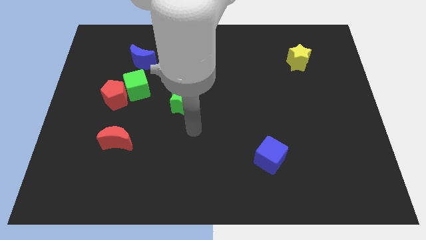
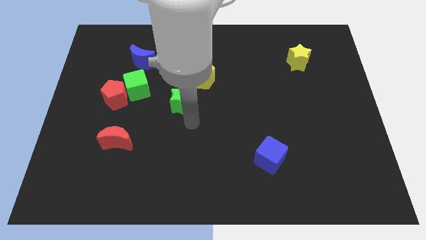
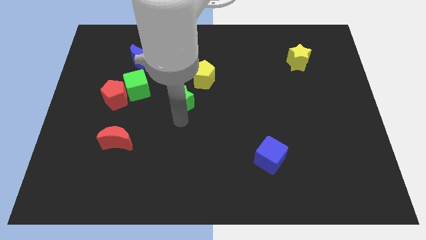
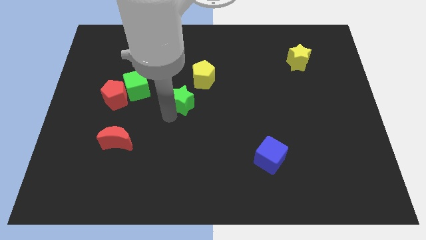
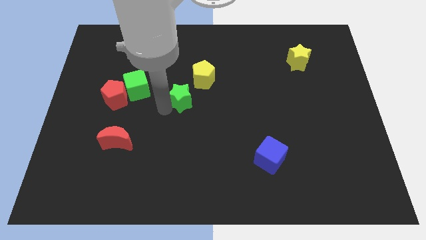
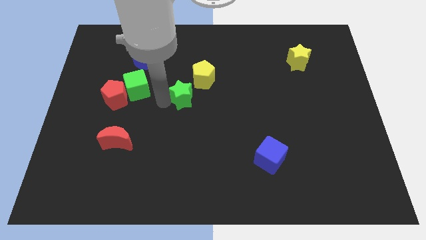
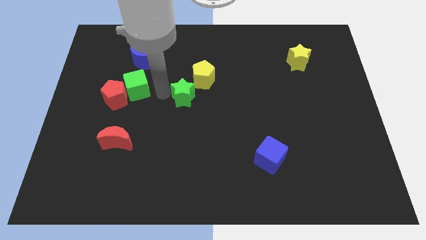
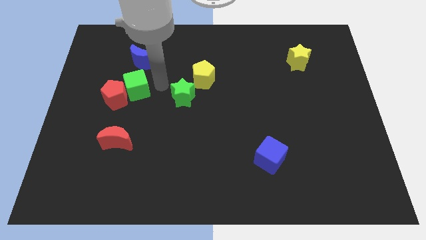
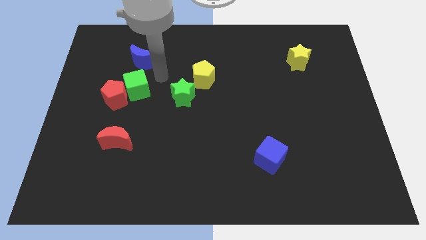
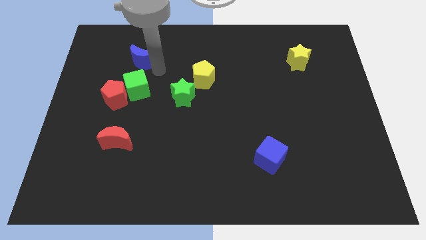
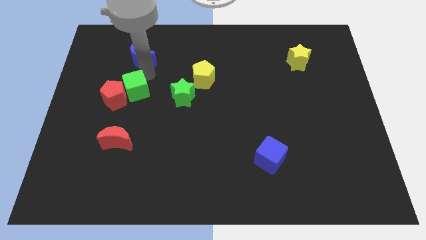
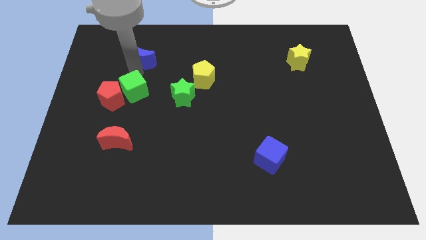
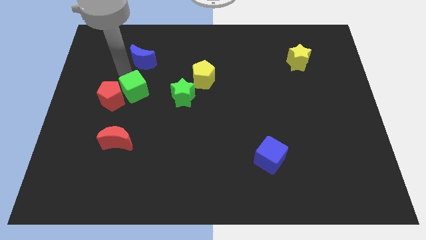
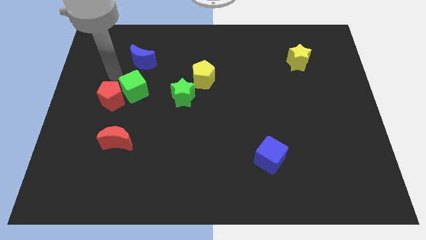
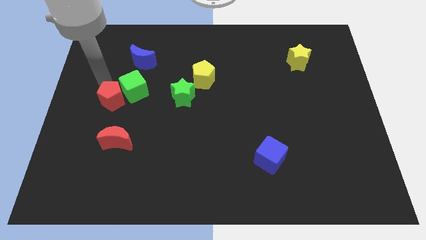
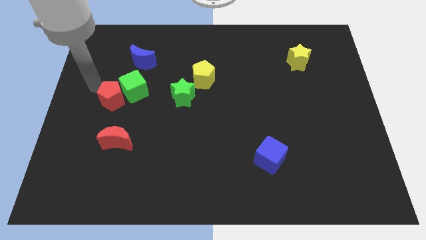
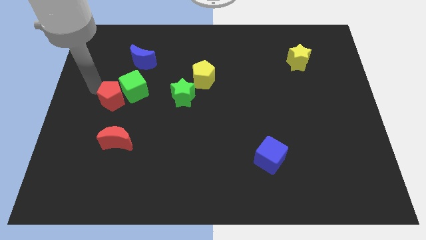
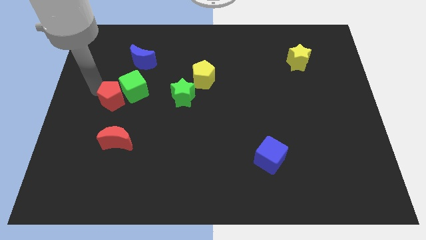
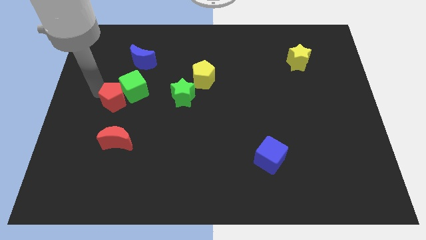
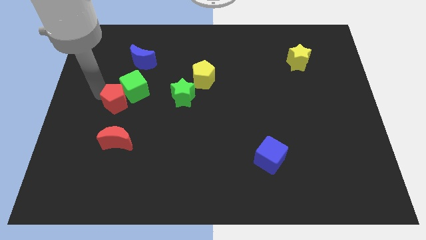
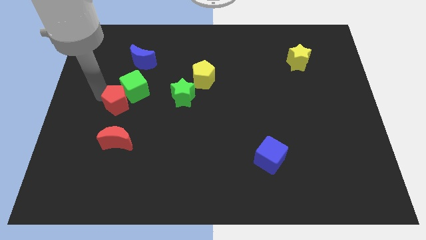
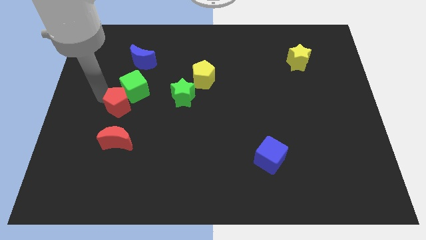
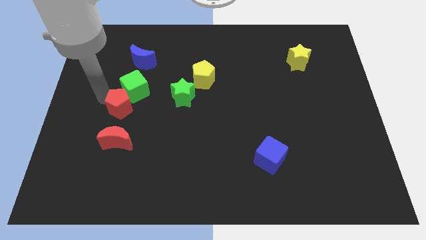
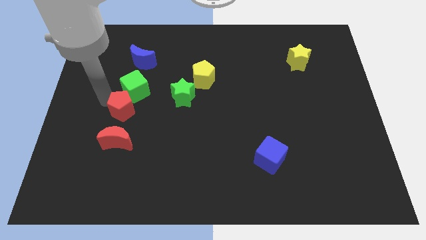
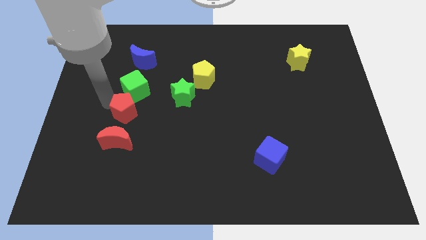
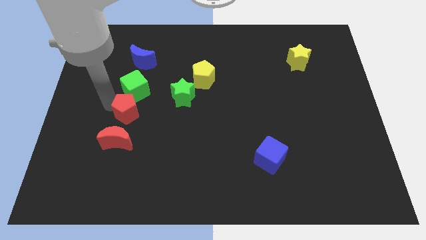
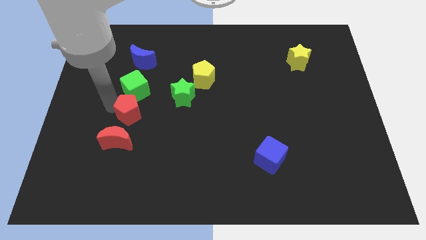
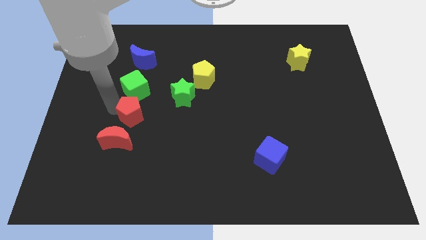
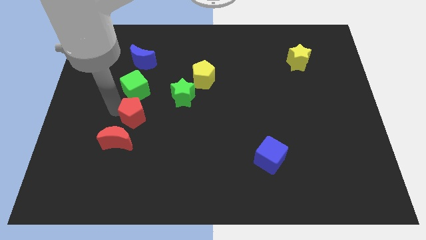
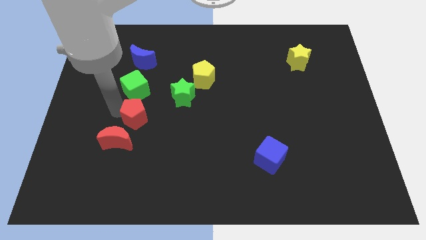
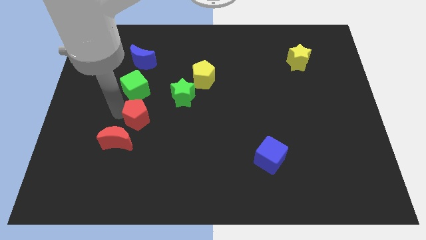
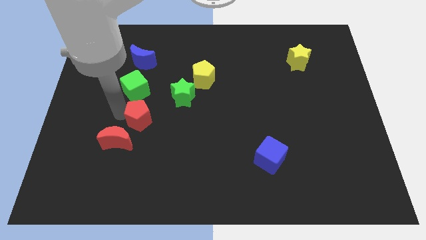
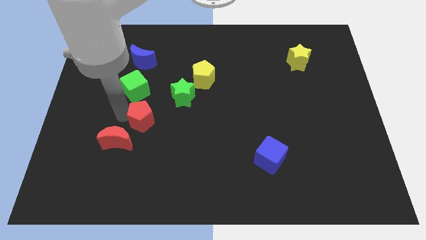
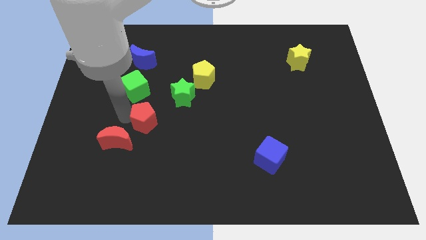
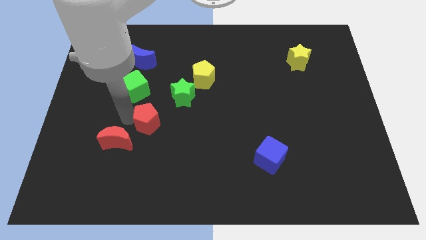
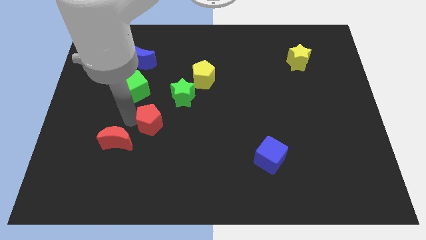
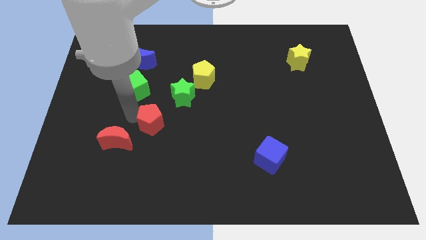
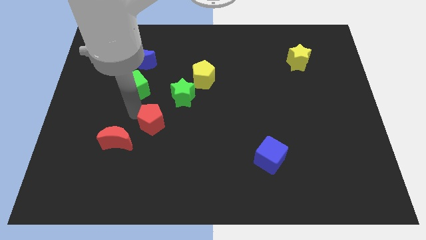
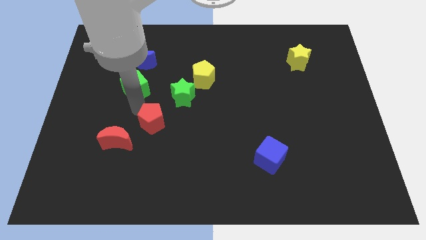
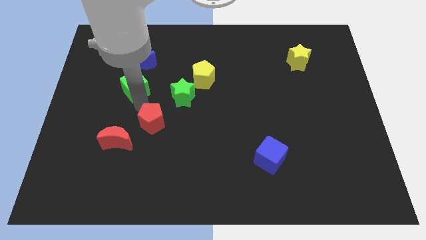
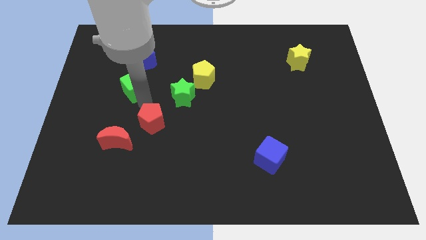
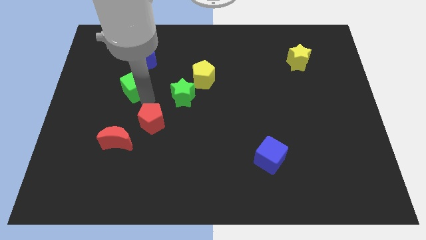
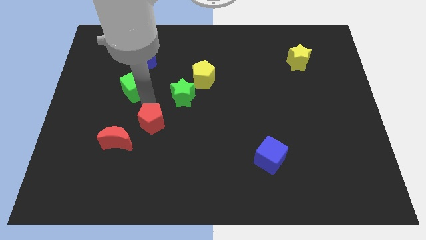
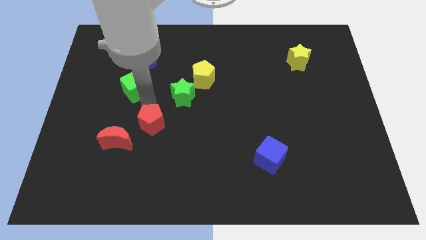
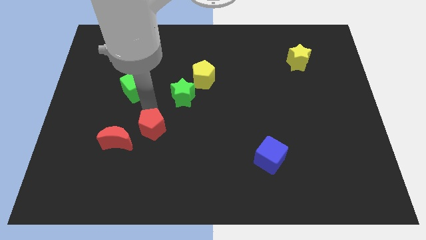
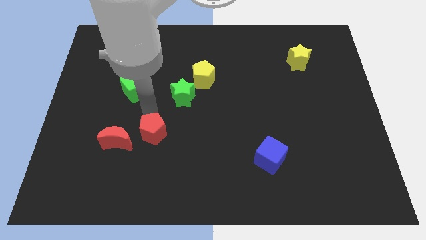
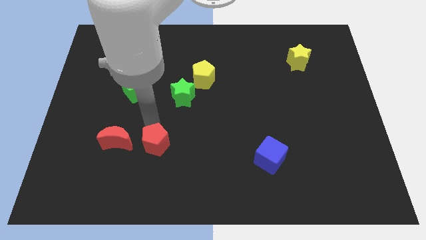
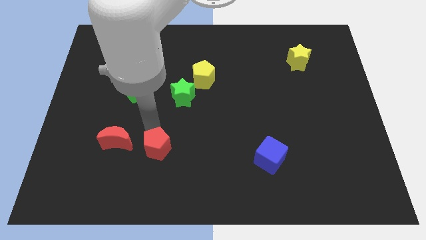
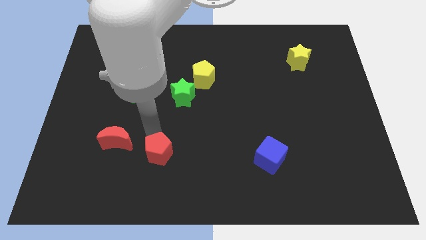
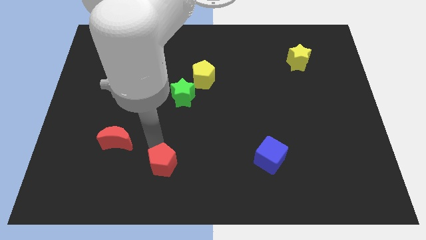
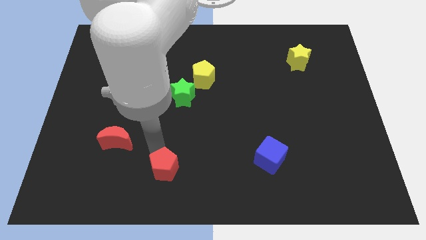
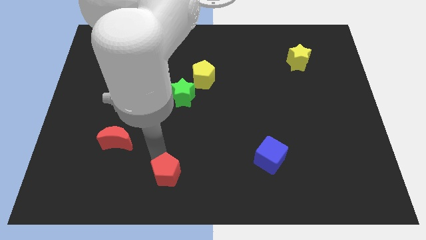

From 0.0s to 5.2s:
slide the red pentagon to the bottom

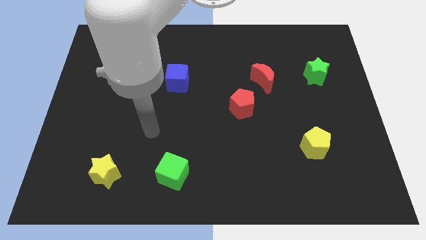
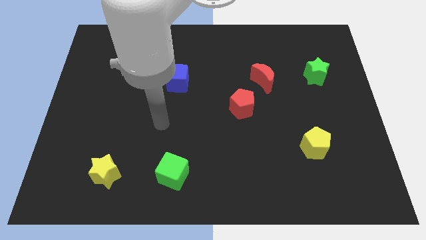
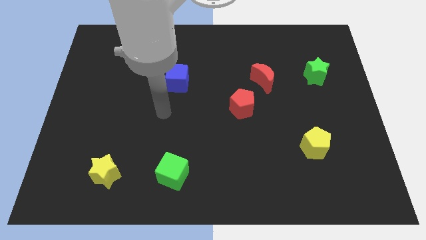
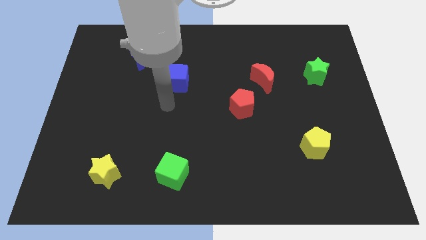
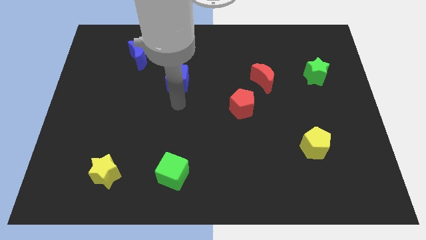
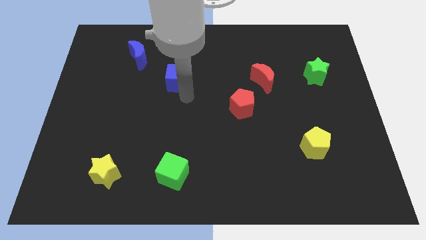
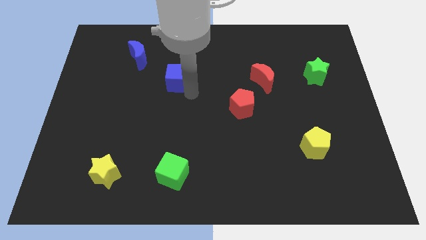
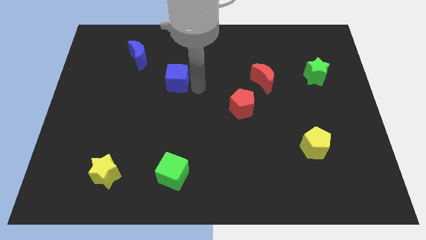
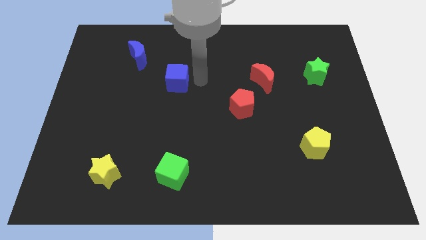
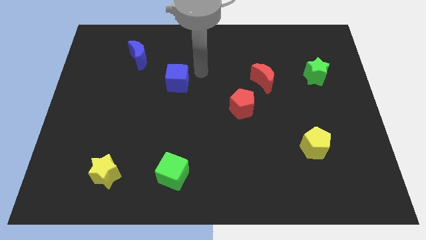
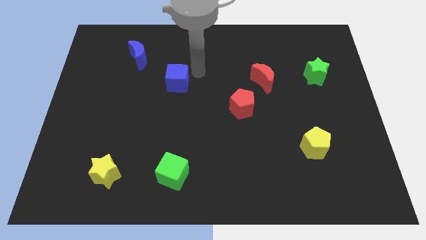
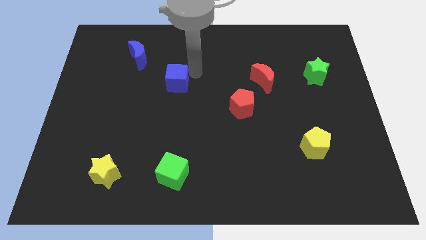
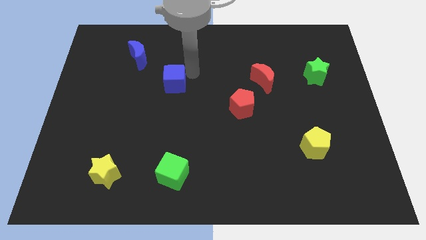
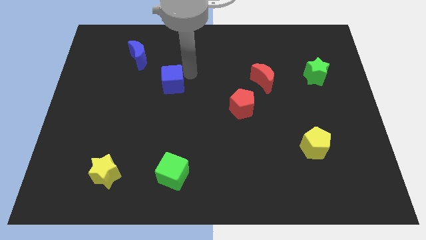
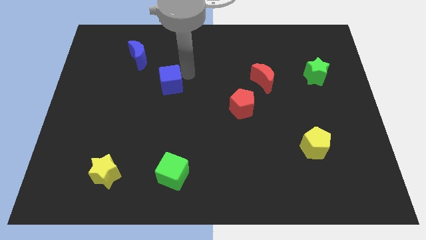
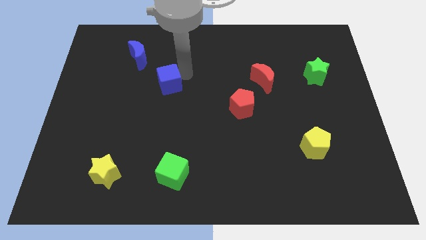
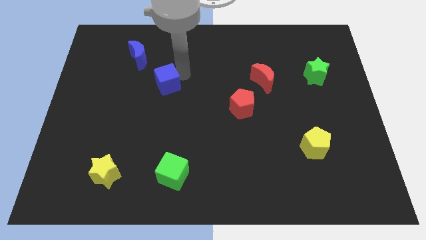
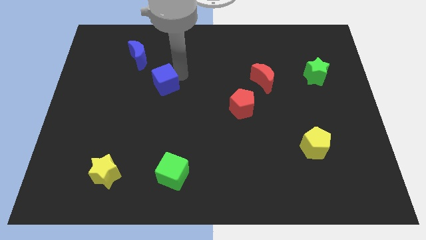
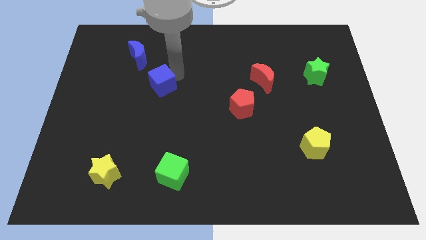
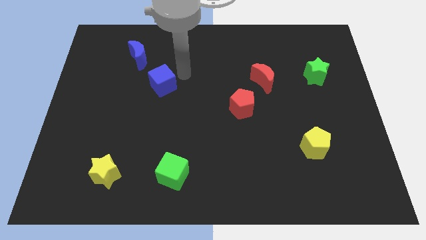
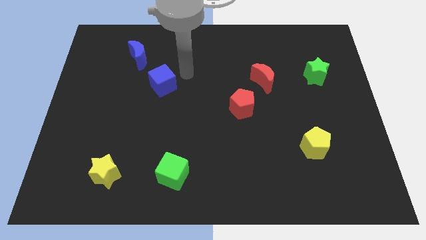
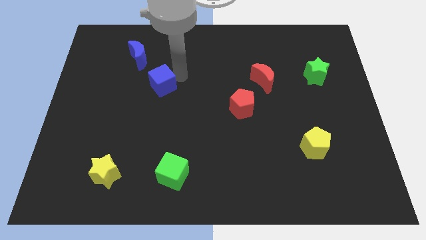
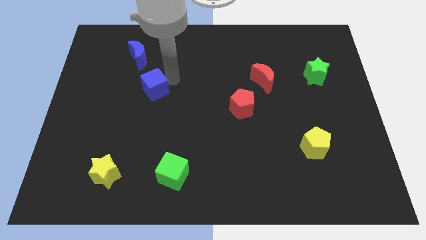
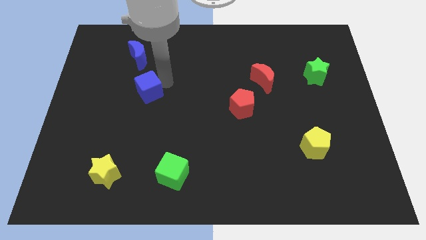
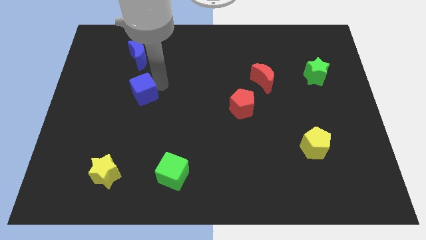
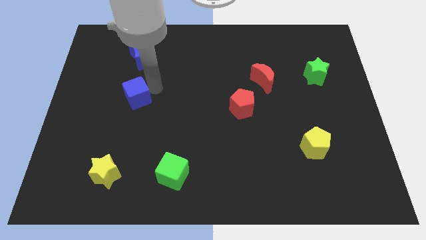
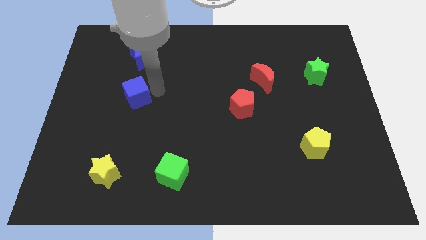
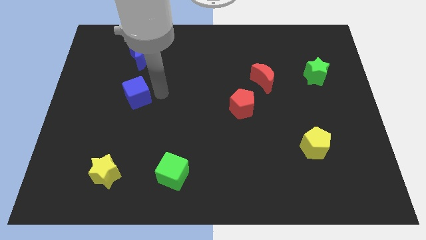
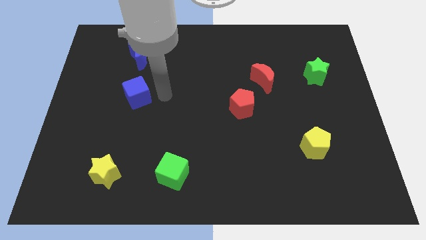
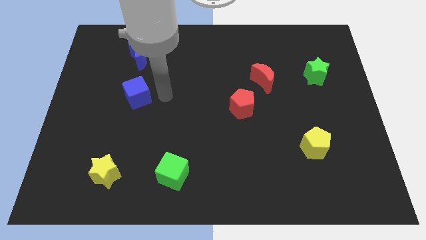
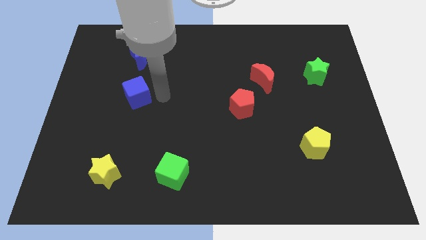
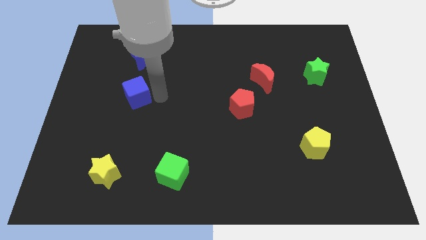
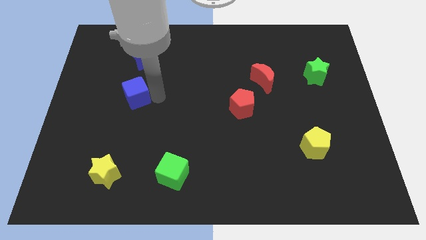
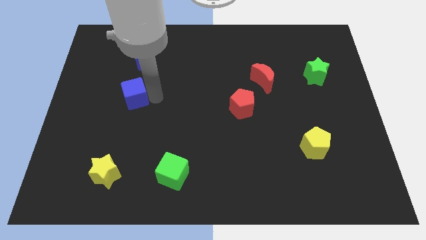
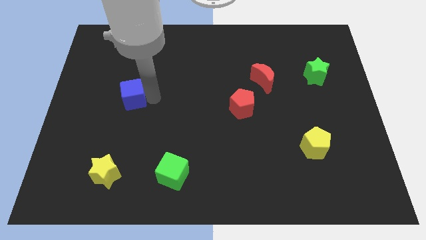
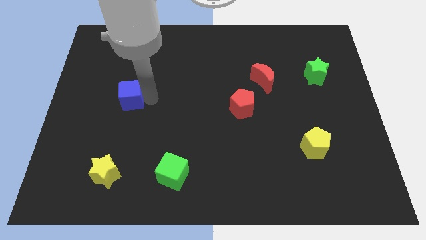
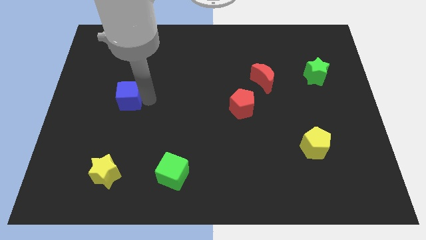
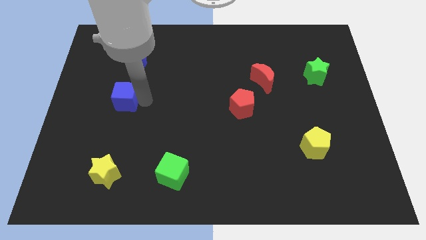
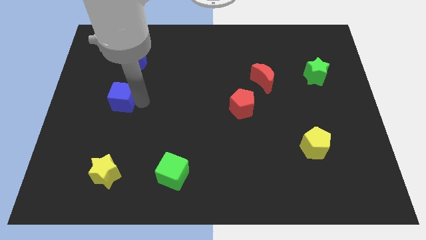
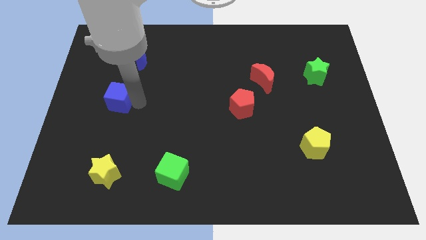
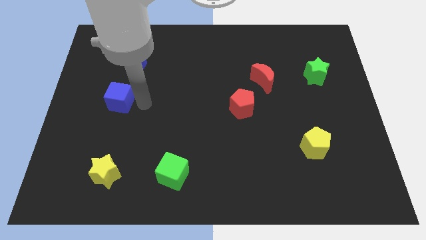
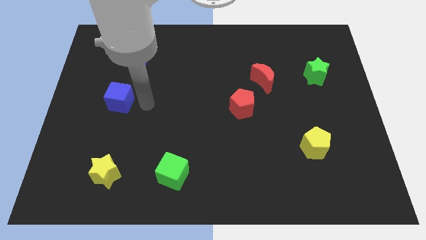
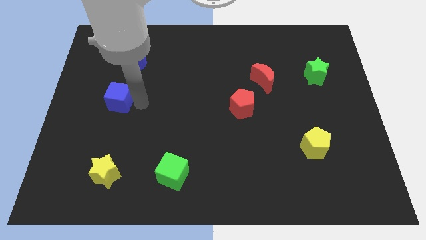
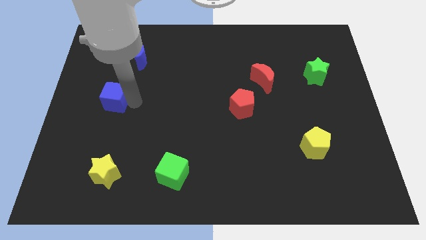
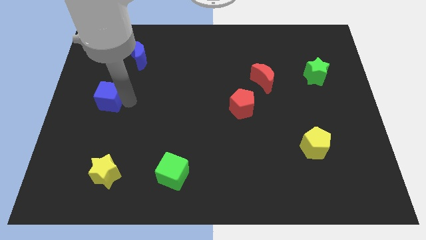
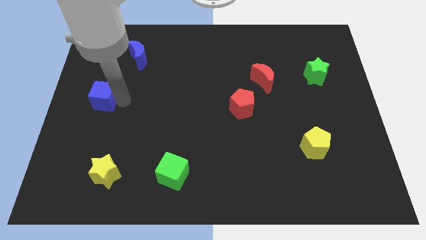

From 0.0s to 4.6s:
push the blue cube to the left side
